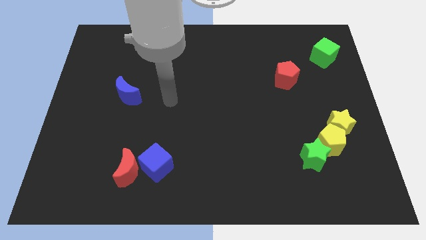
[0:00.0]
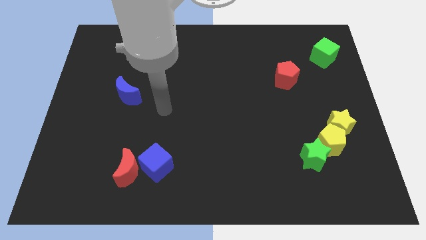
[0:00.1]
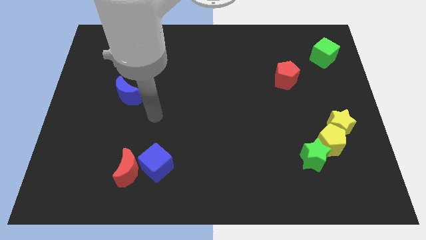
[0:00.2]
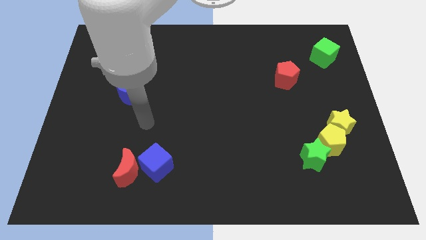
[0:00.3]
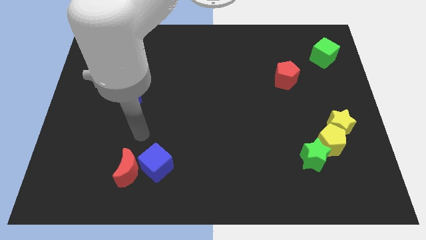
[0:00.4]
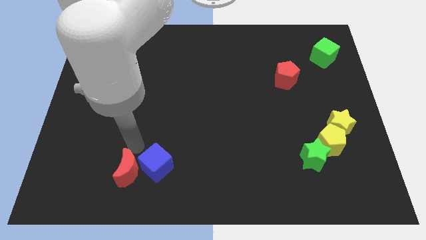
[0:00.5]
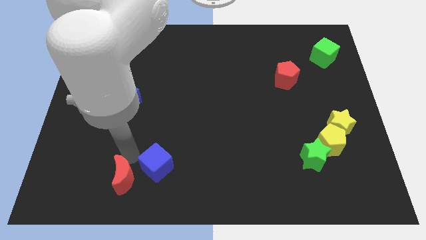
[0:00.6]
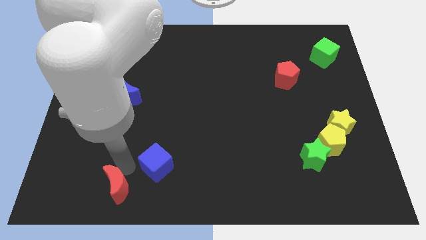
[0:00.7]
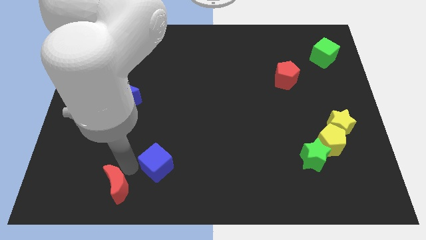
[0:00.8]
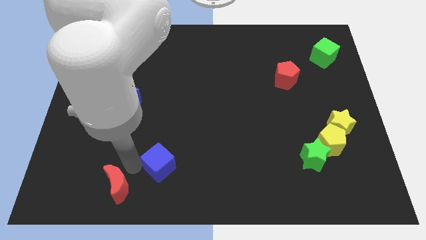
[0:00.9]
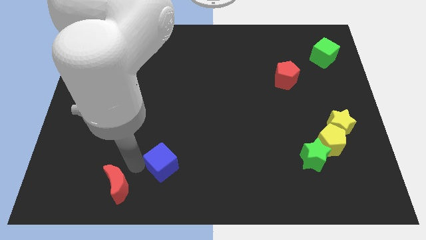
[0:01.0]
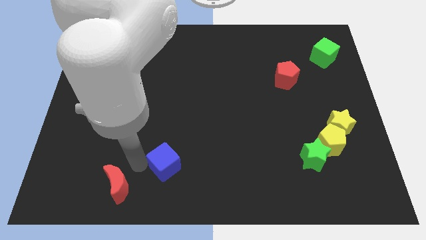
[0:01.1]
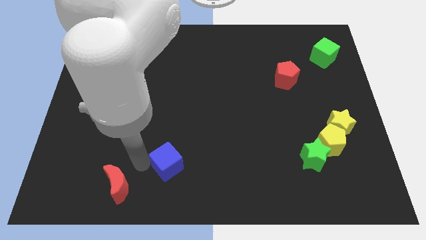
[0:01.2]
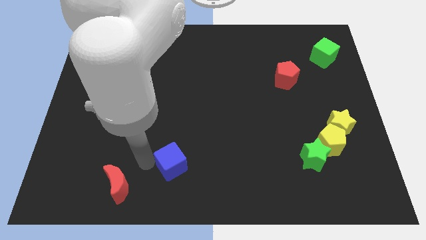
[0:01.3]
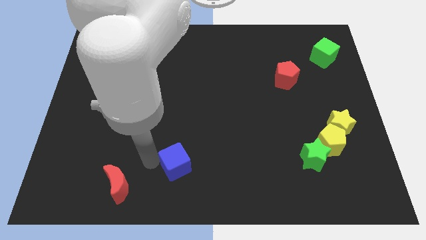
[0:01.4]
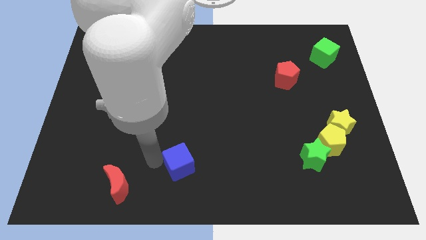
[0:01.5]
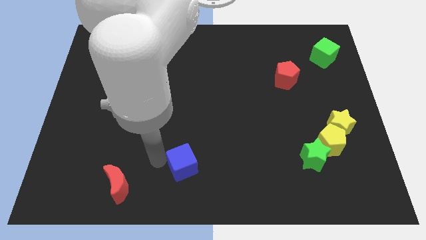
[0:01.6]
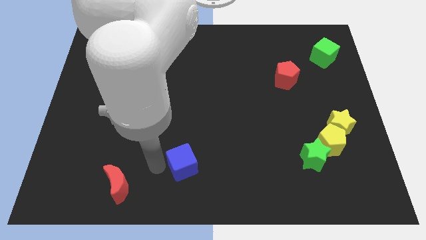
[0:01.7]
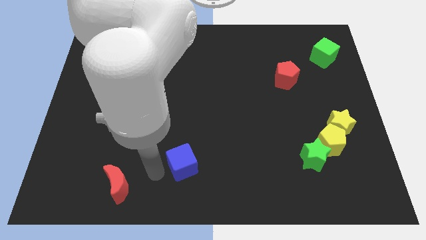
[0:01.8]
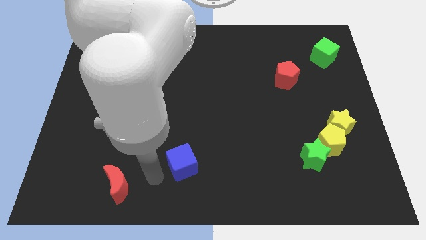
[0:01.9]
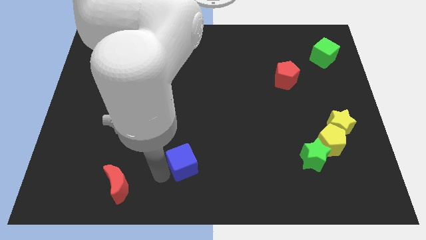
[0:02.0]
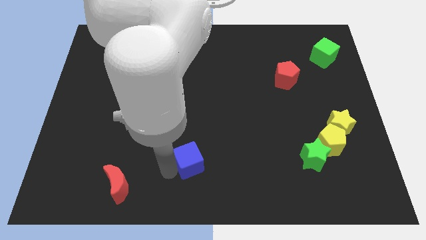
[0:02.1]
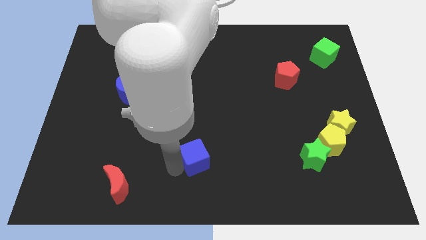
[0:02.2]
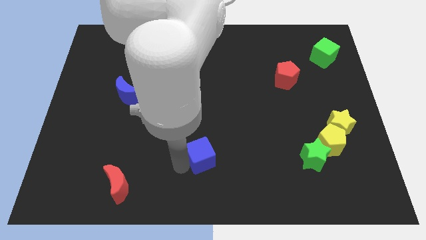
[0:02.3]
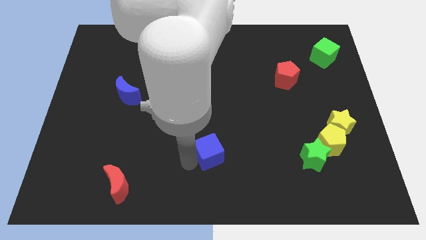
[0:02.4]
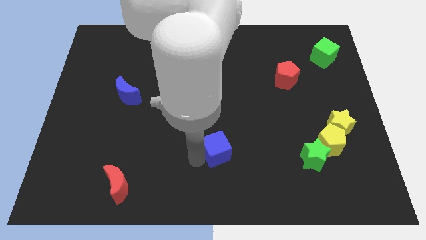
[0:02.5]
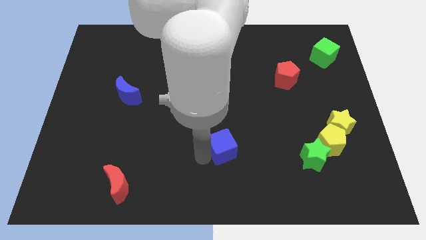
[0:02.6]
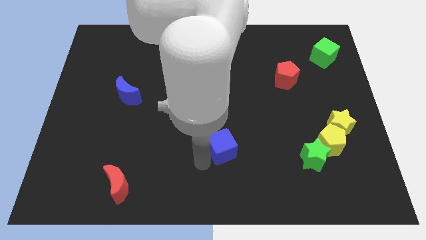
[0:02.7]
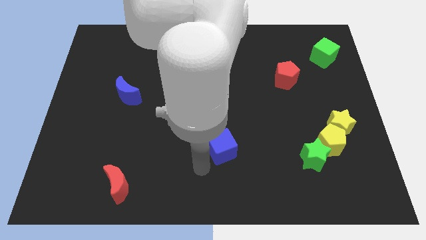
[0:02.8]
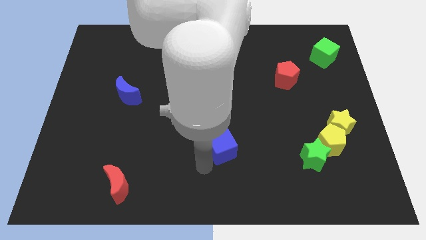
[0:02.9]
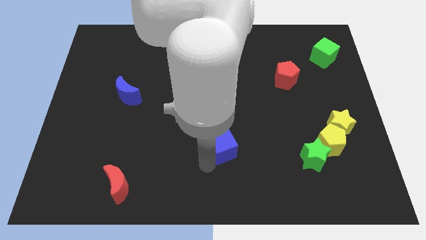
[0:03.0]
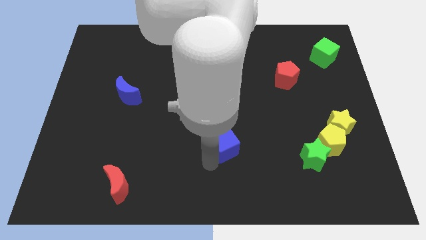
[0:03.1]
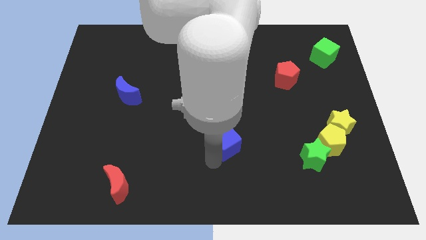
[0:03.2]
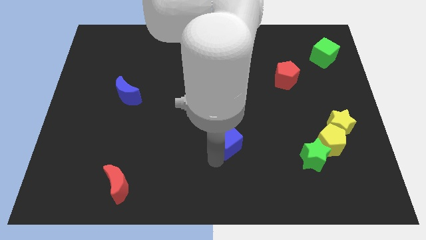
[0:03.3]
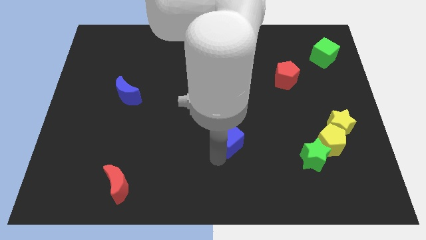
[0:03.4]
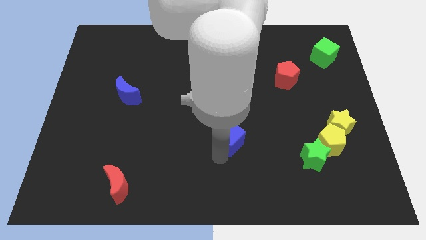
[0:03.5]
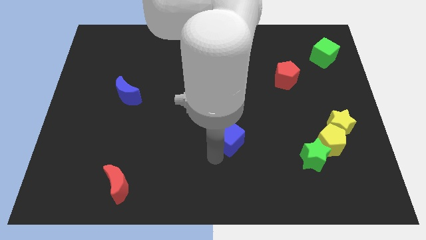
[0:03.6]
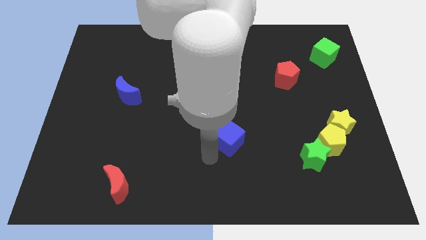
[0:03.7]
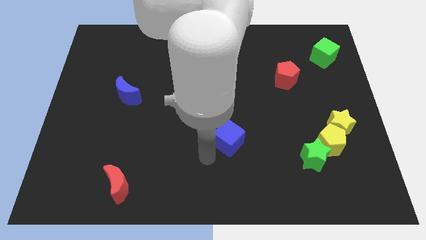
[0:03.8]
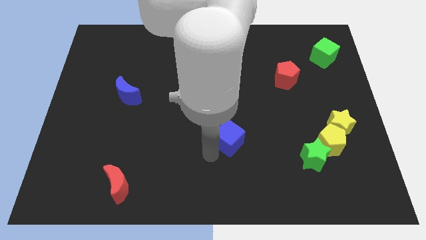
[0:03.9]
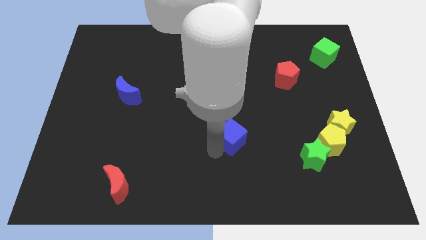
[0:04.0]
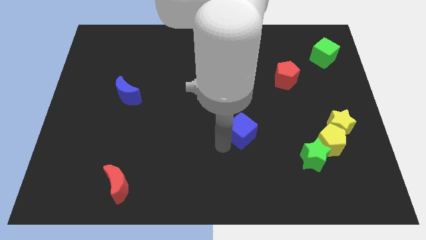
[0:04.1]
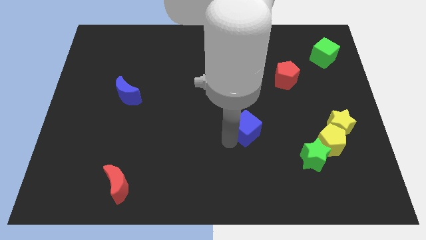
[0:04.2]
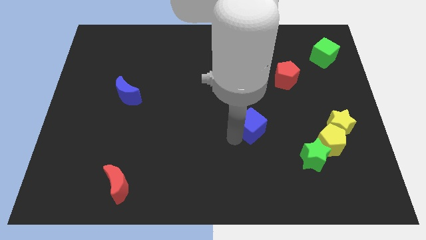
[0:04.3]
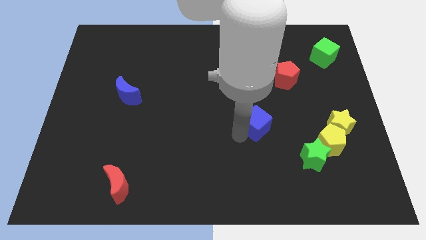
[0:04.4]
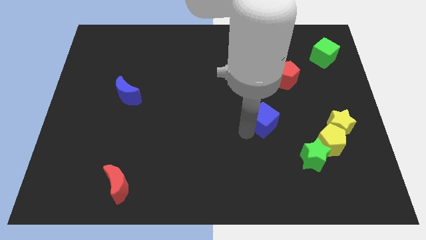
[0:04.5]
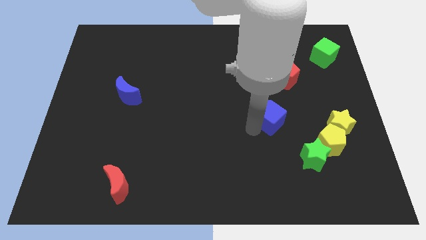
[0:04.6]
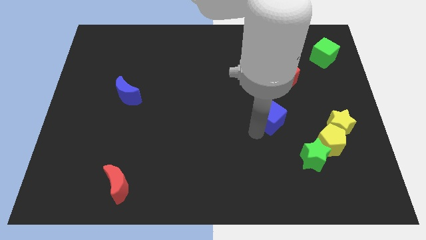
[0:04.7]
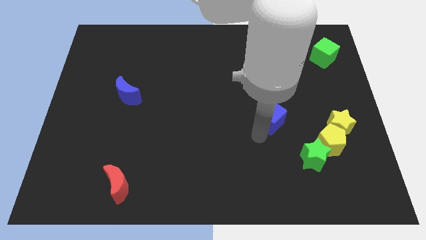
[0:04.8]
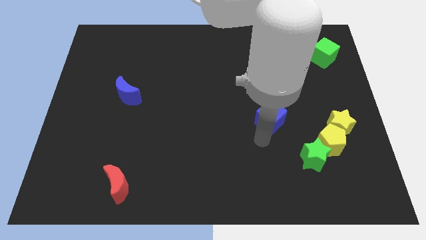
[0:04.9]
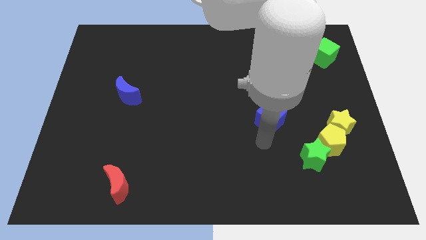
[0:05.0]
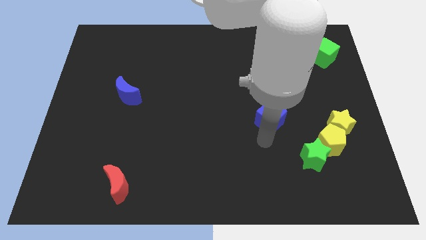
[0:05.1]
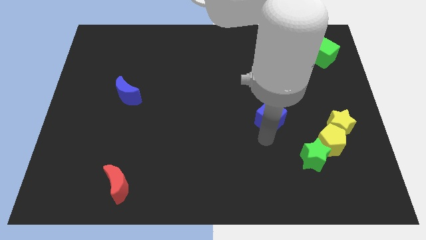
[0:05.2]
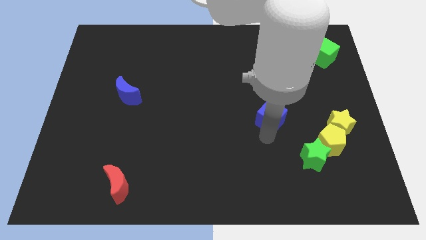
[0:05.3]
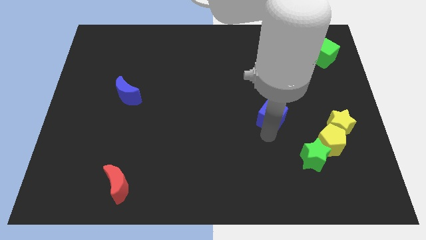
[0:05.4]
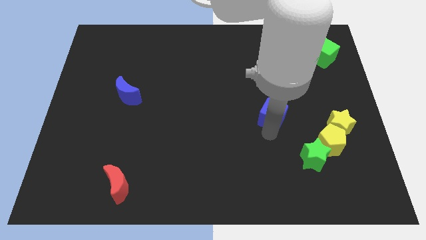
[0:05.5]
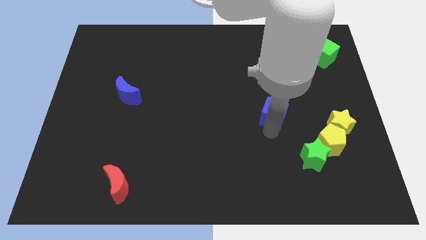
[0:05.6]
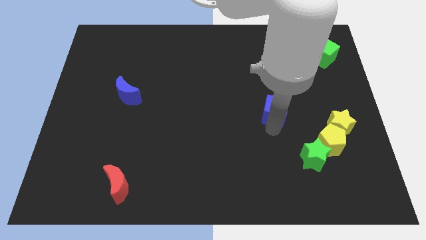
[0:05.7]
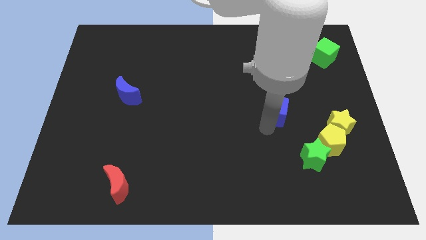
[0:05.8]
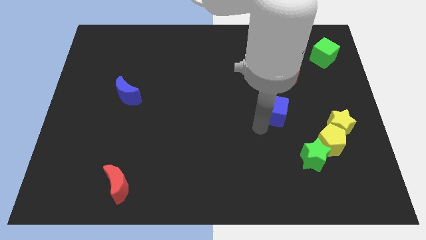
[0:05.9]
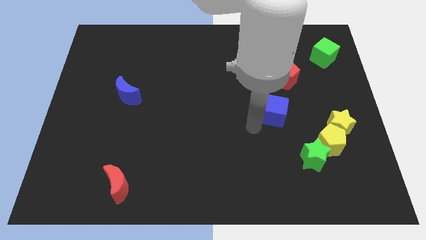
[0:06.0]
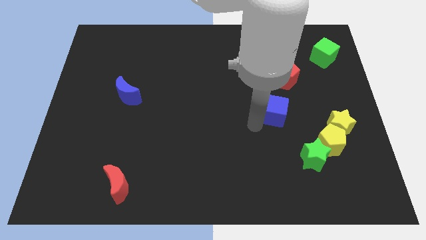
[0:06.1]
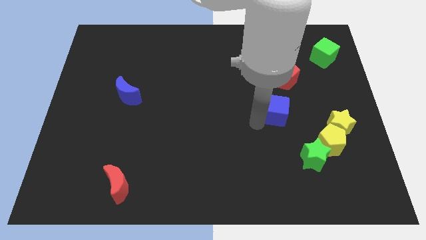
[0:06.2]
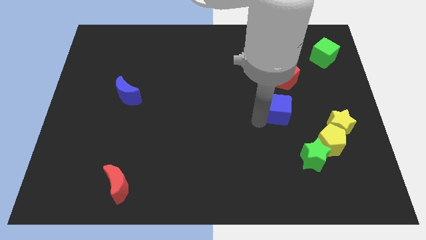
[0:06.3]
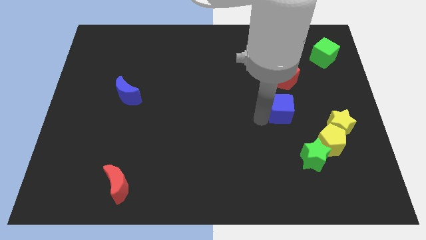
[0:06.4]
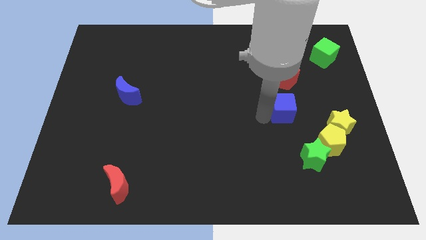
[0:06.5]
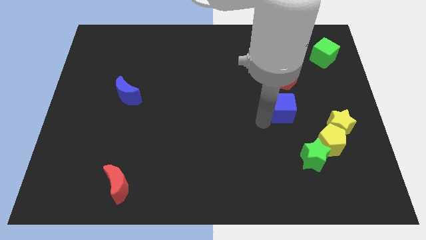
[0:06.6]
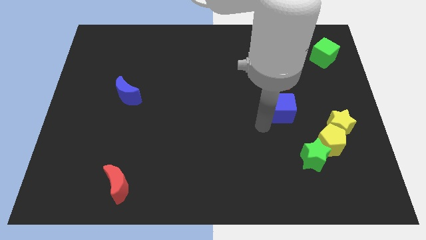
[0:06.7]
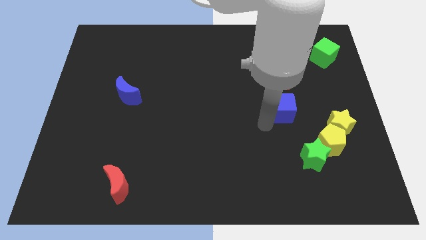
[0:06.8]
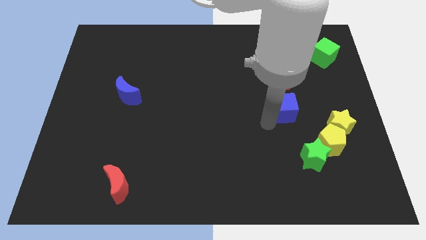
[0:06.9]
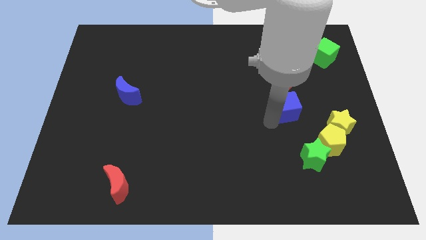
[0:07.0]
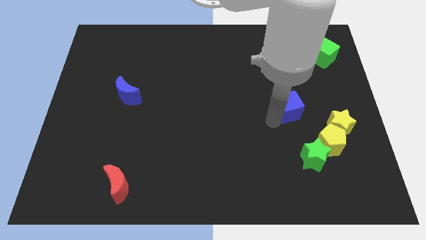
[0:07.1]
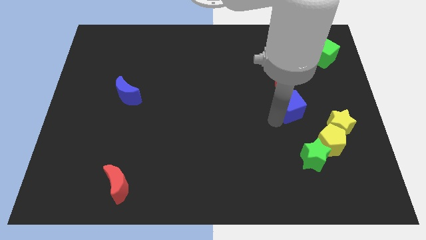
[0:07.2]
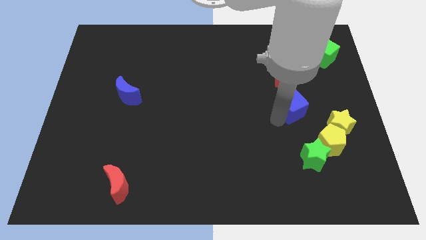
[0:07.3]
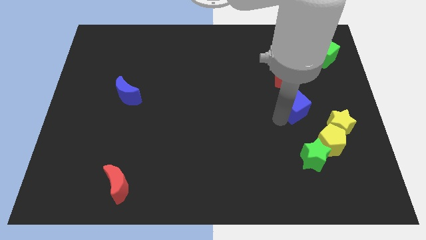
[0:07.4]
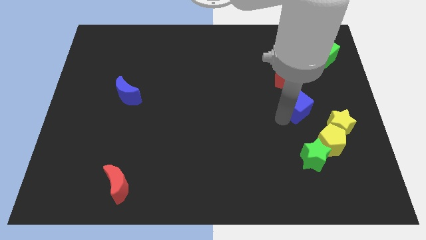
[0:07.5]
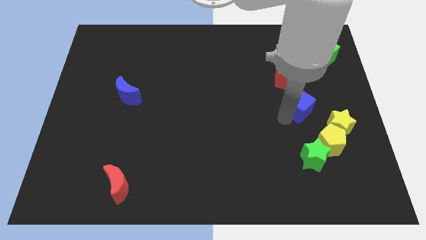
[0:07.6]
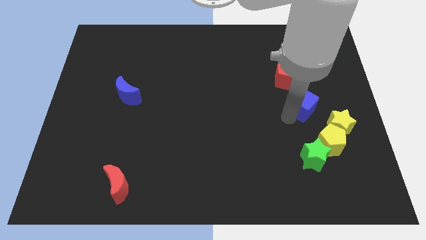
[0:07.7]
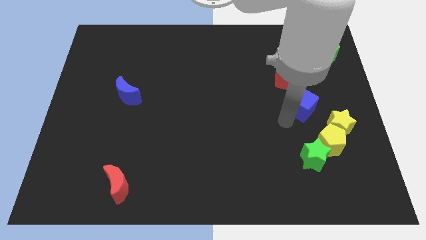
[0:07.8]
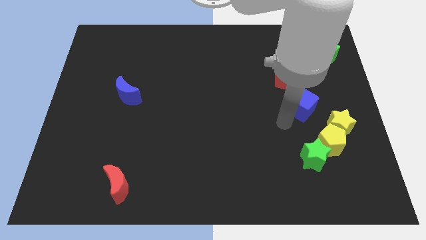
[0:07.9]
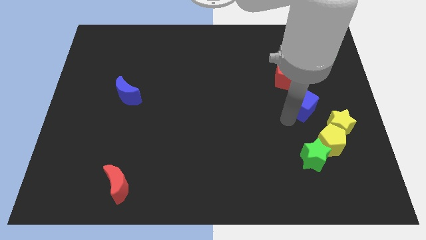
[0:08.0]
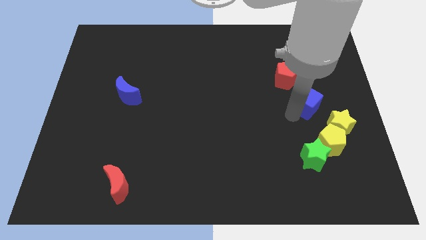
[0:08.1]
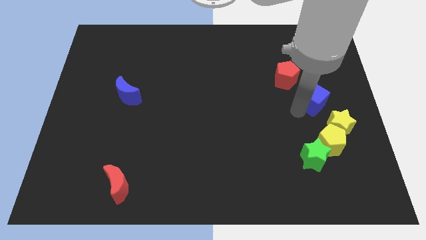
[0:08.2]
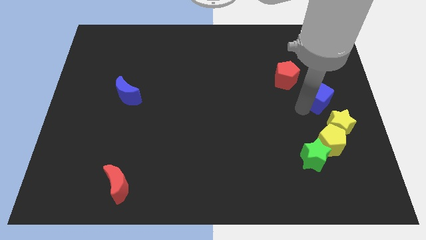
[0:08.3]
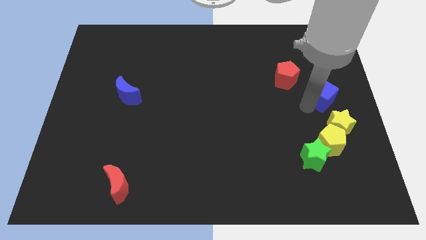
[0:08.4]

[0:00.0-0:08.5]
push the blue cube to the bottom side of the green cube
